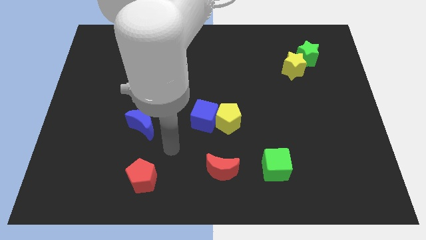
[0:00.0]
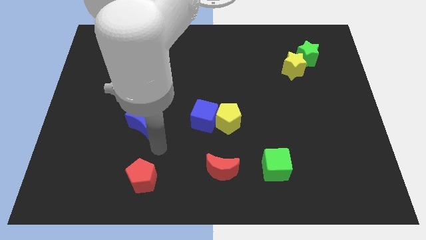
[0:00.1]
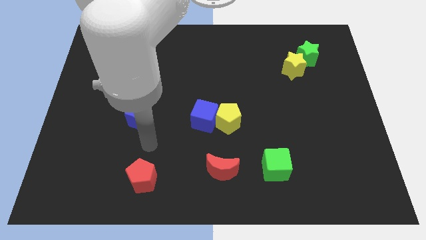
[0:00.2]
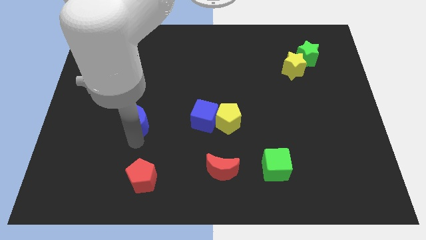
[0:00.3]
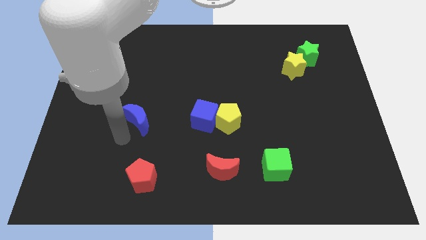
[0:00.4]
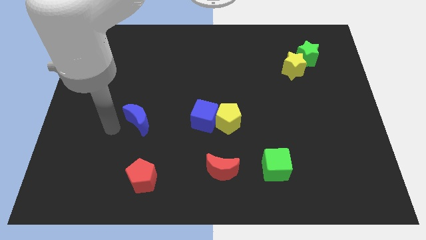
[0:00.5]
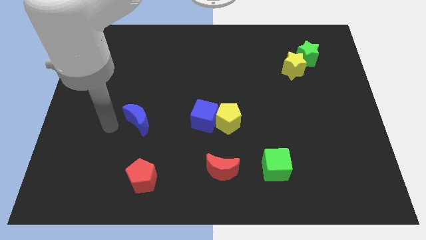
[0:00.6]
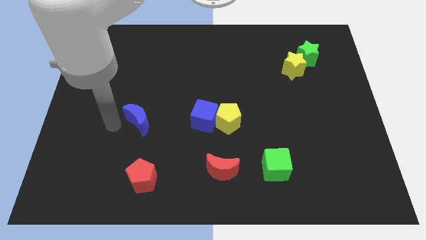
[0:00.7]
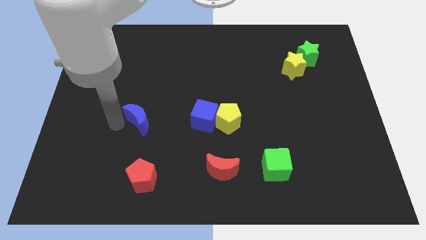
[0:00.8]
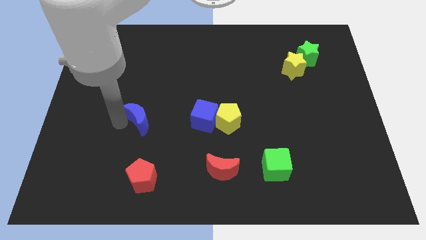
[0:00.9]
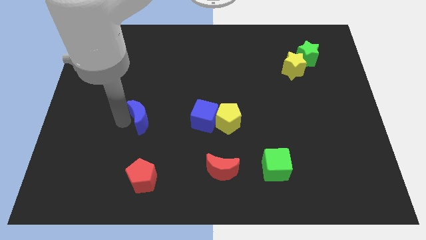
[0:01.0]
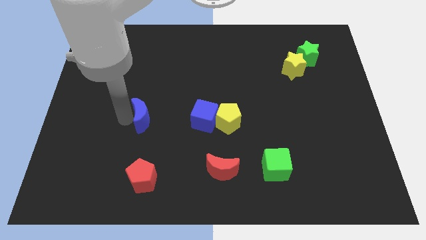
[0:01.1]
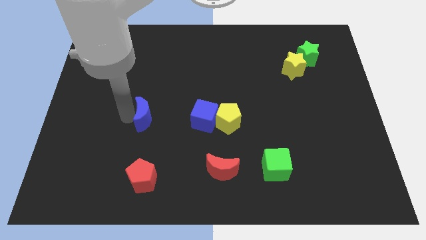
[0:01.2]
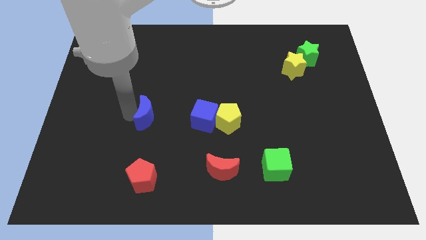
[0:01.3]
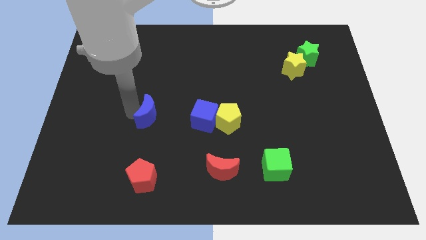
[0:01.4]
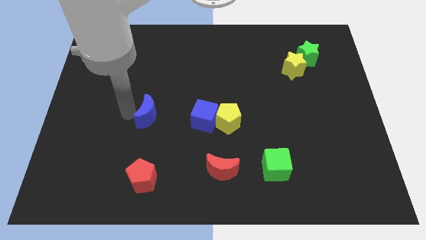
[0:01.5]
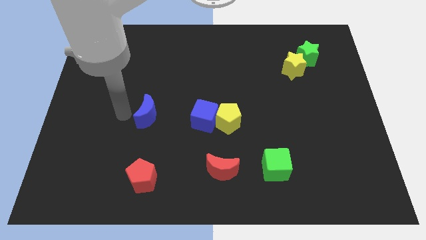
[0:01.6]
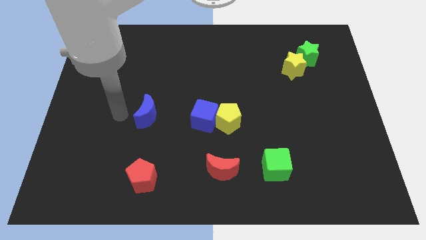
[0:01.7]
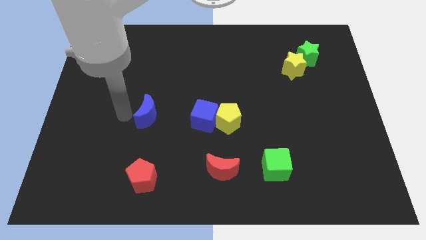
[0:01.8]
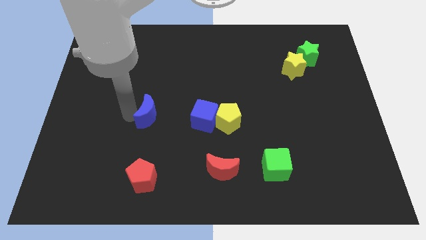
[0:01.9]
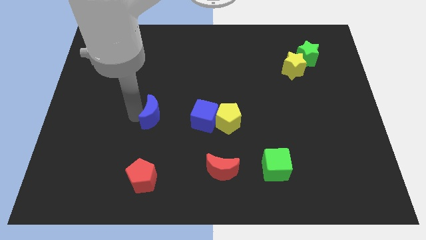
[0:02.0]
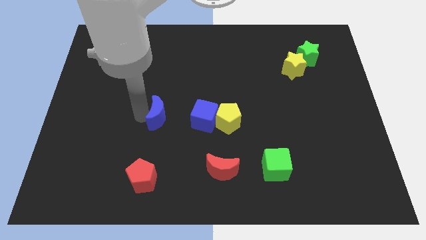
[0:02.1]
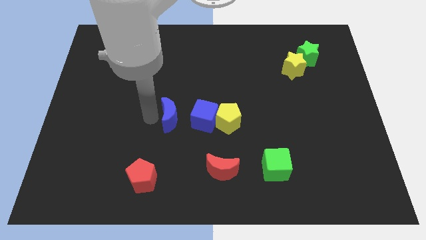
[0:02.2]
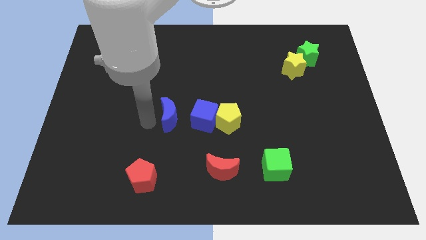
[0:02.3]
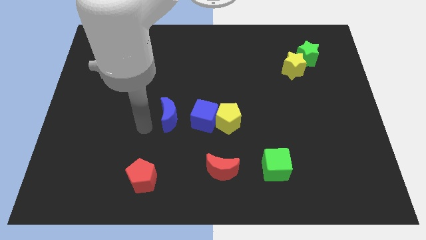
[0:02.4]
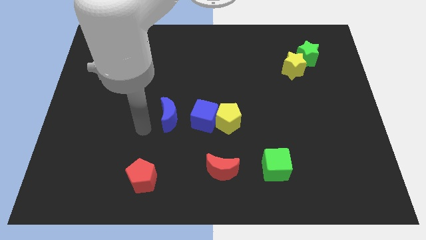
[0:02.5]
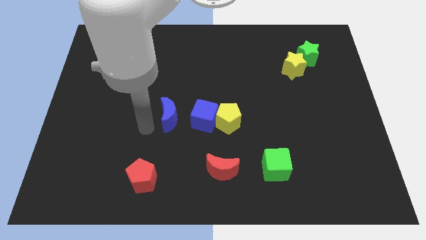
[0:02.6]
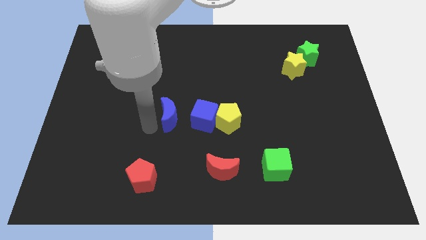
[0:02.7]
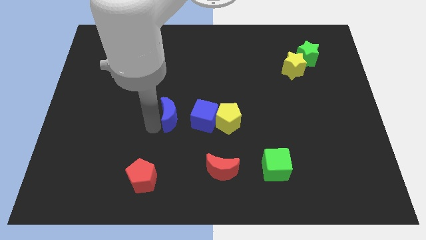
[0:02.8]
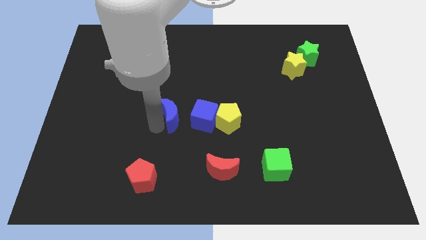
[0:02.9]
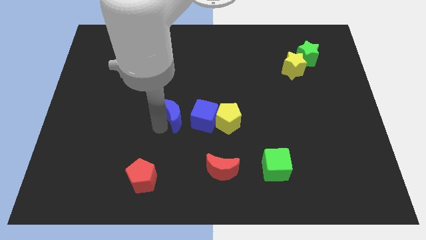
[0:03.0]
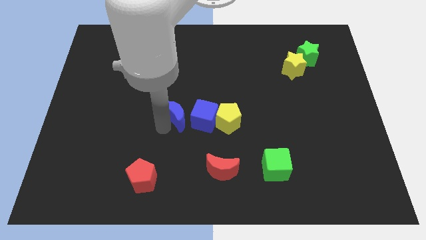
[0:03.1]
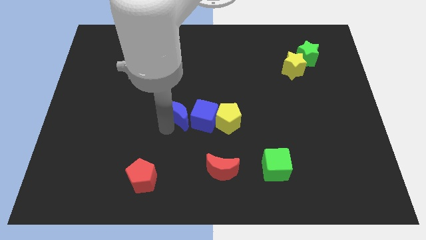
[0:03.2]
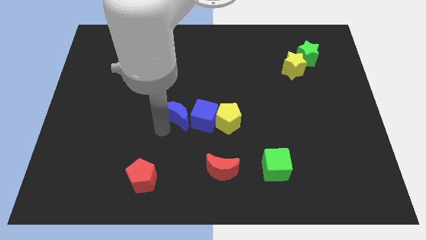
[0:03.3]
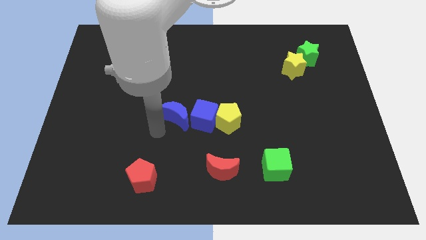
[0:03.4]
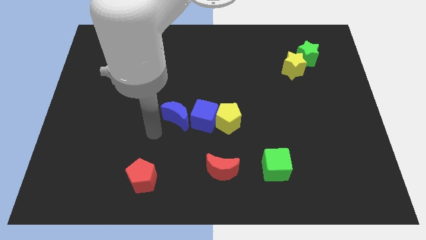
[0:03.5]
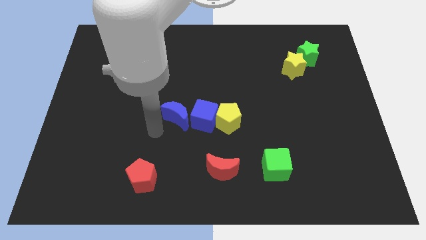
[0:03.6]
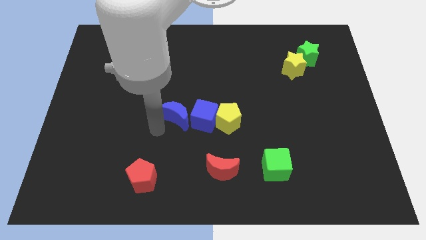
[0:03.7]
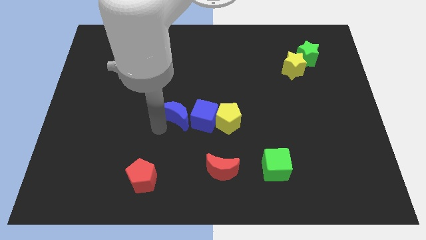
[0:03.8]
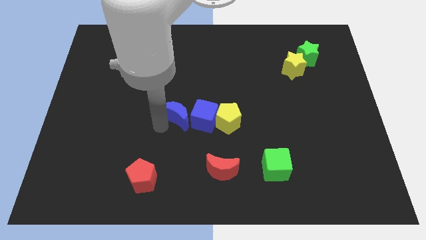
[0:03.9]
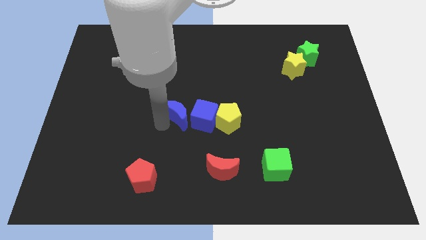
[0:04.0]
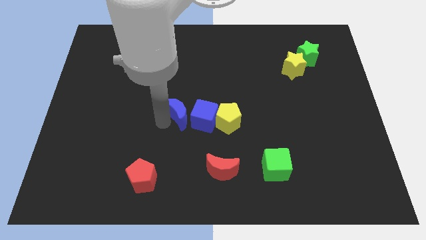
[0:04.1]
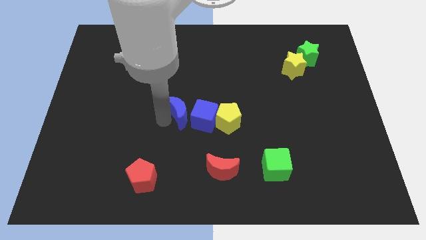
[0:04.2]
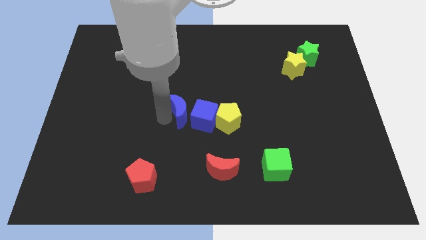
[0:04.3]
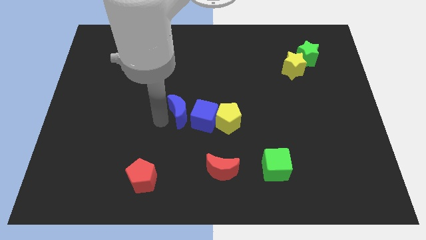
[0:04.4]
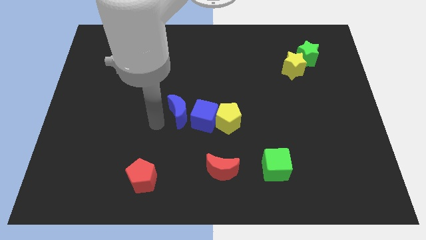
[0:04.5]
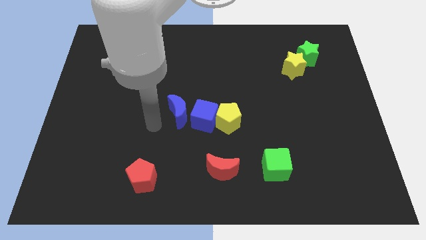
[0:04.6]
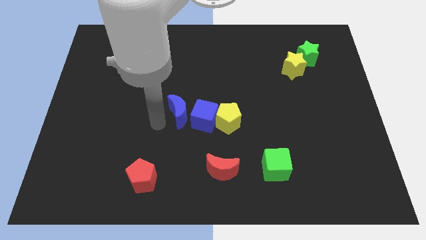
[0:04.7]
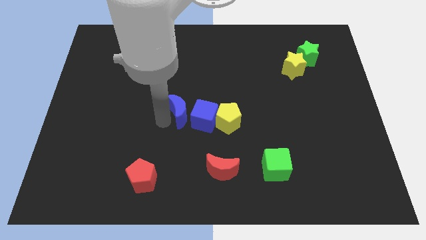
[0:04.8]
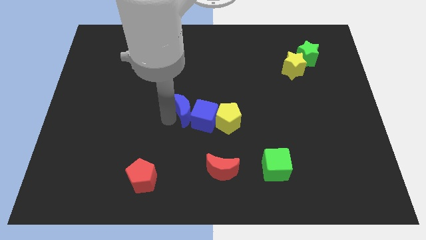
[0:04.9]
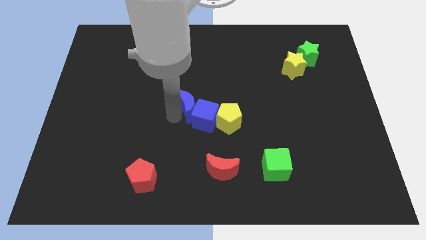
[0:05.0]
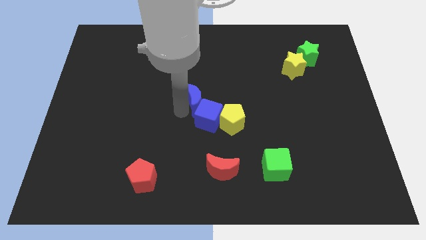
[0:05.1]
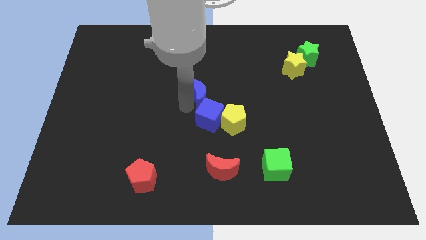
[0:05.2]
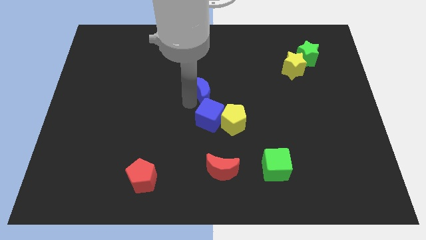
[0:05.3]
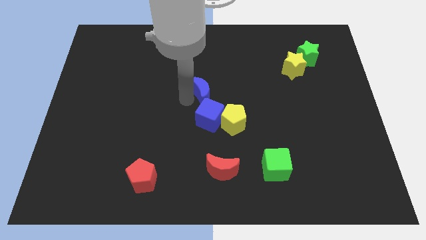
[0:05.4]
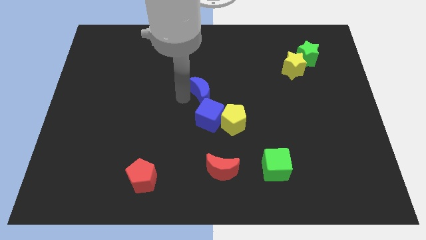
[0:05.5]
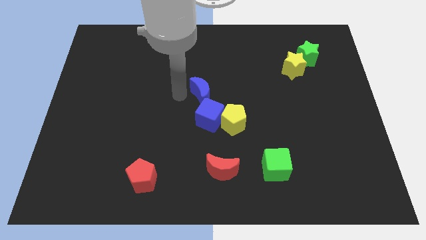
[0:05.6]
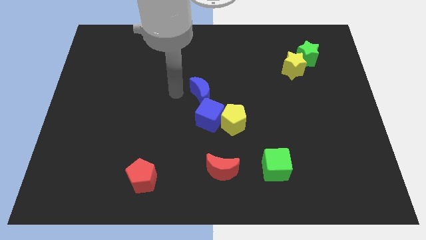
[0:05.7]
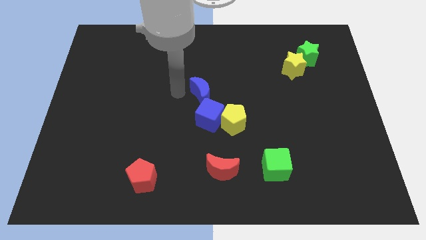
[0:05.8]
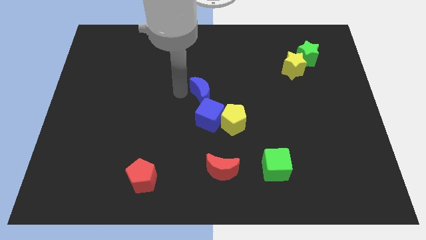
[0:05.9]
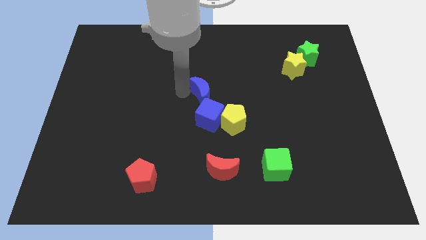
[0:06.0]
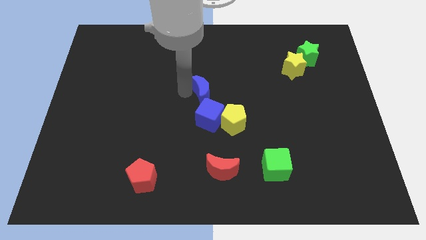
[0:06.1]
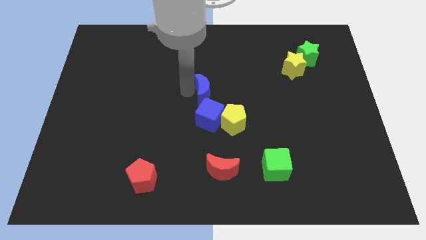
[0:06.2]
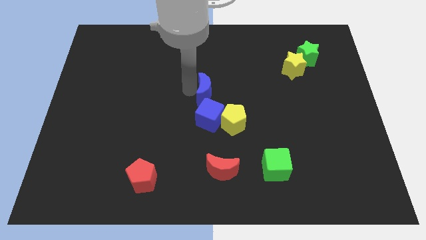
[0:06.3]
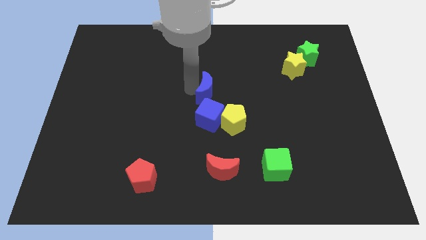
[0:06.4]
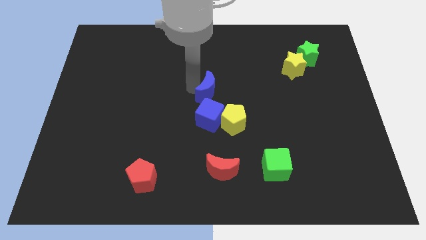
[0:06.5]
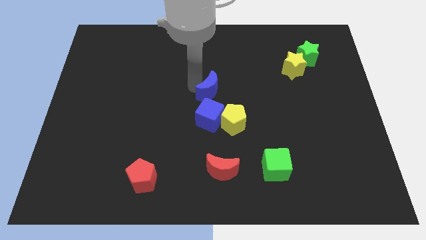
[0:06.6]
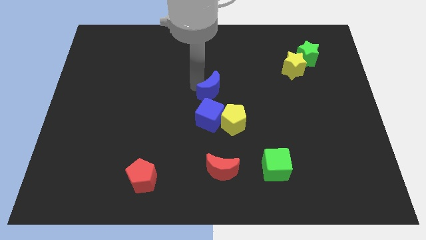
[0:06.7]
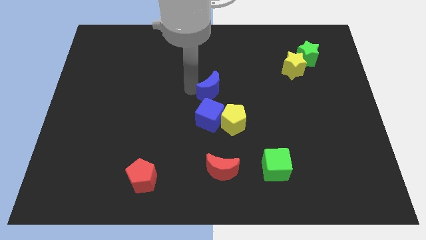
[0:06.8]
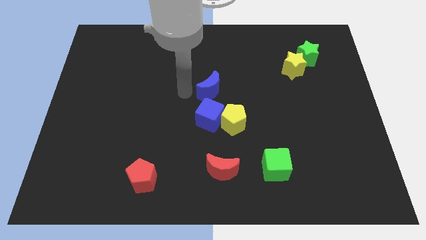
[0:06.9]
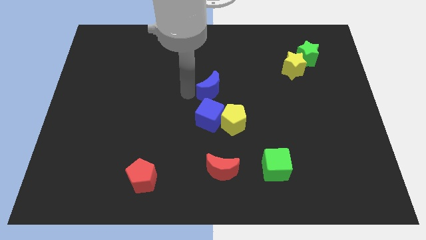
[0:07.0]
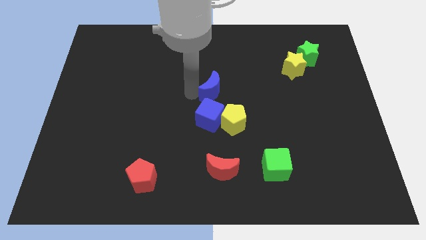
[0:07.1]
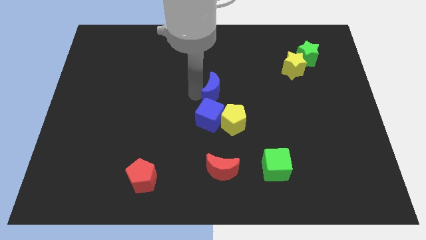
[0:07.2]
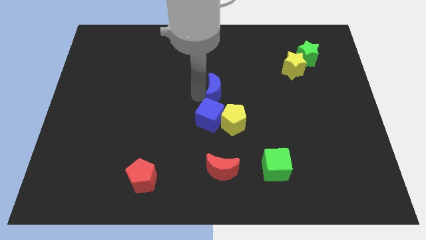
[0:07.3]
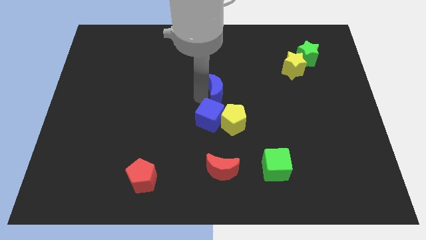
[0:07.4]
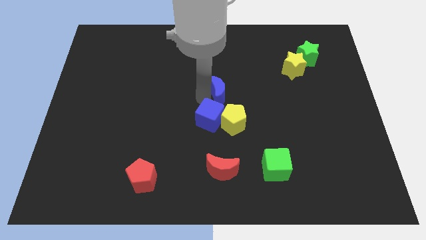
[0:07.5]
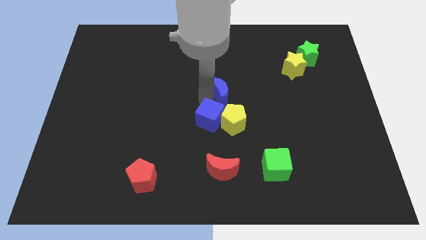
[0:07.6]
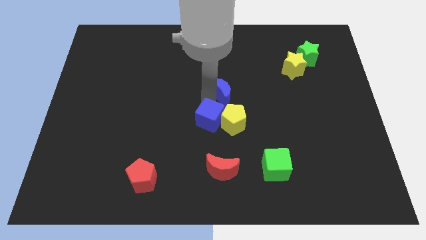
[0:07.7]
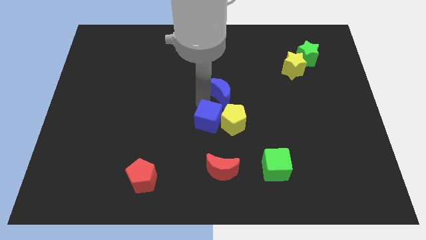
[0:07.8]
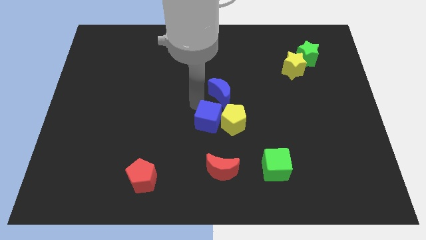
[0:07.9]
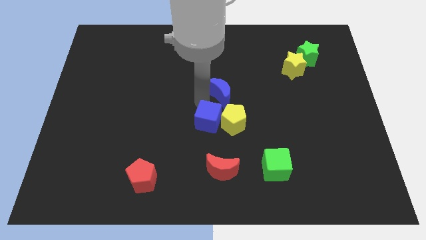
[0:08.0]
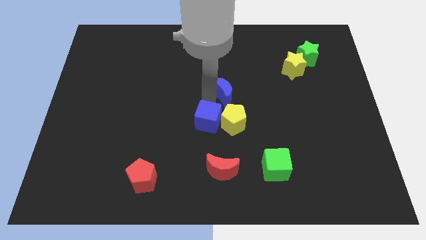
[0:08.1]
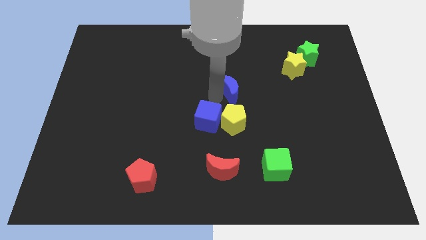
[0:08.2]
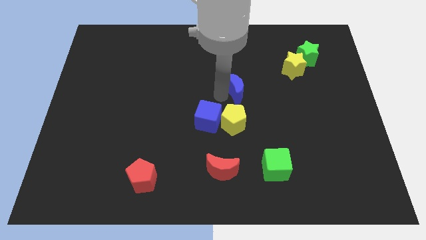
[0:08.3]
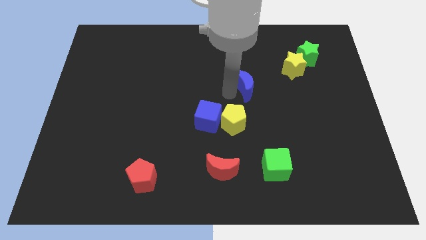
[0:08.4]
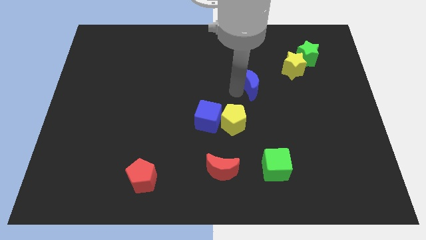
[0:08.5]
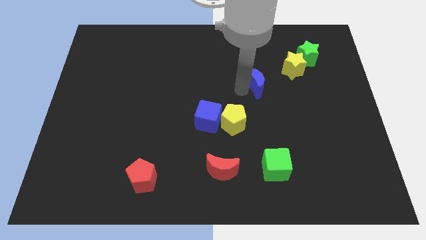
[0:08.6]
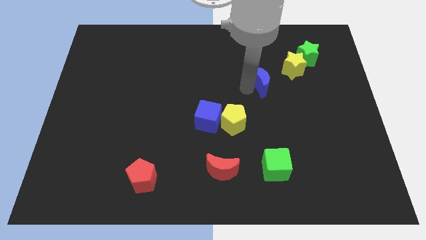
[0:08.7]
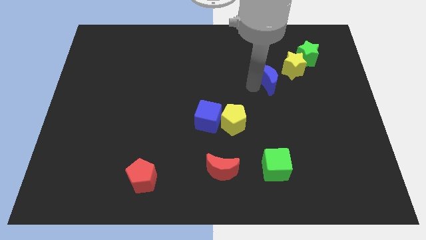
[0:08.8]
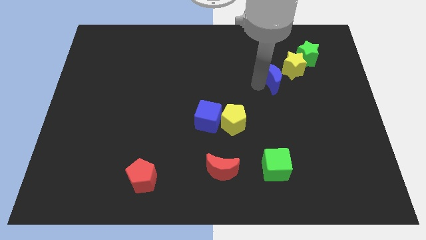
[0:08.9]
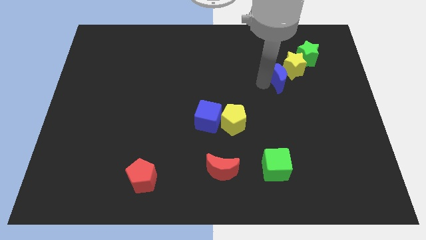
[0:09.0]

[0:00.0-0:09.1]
push the blue moon close to the yellow star
